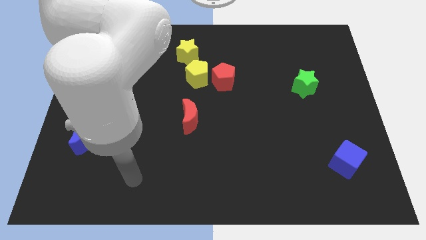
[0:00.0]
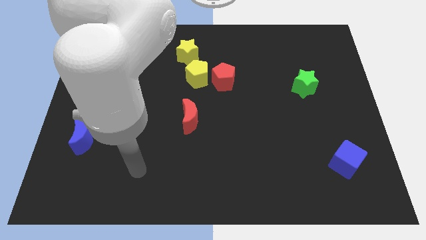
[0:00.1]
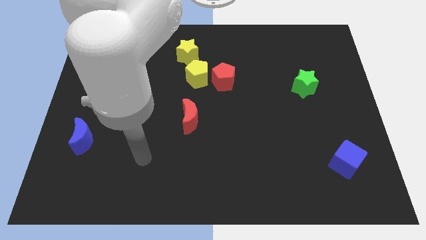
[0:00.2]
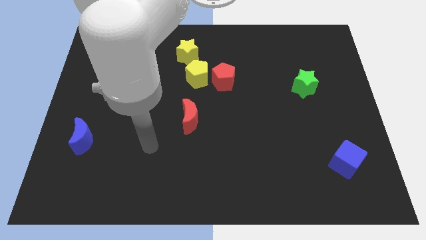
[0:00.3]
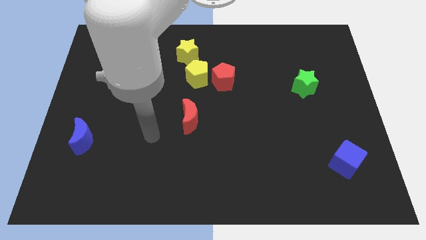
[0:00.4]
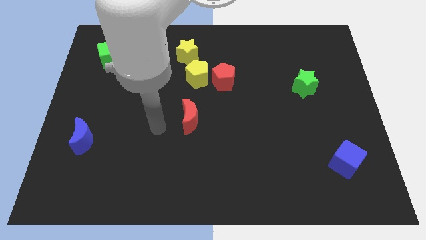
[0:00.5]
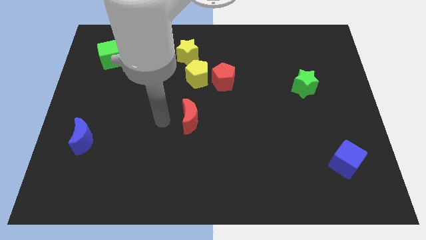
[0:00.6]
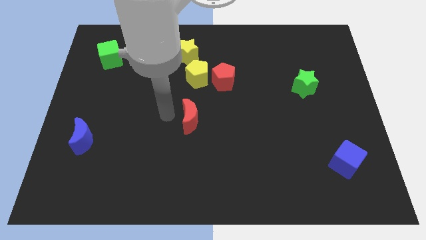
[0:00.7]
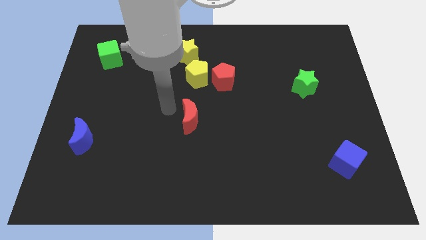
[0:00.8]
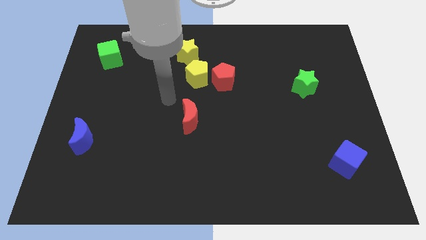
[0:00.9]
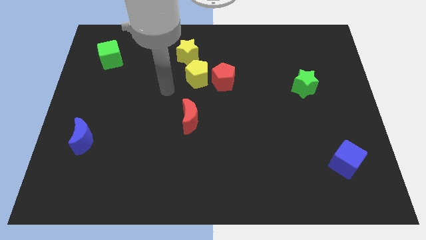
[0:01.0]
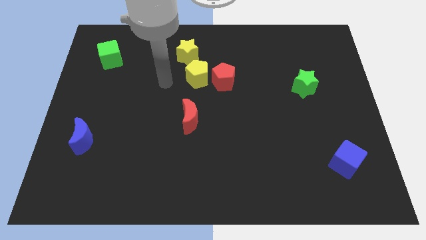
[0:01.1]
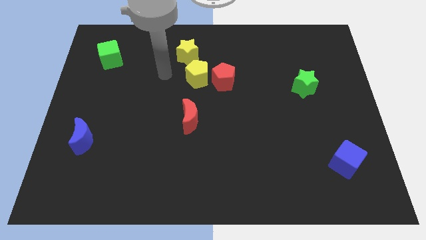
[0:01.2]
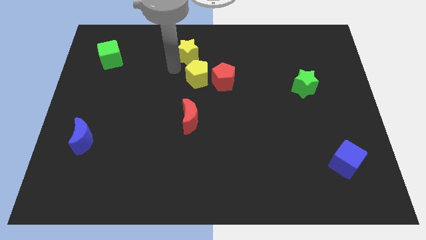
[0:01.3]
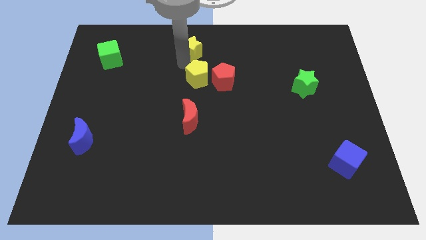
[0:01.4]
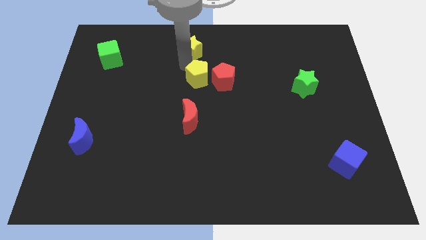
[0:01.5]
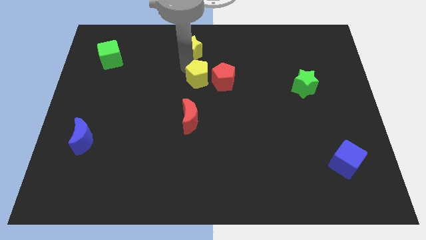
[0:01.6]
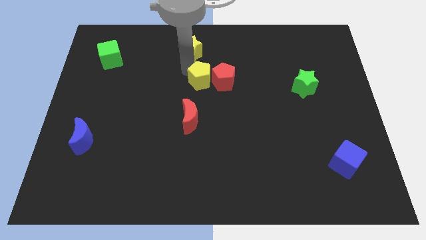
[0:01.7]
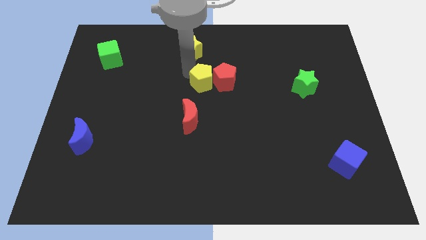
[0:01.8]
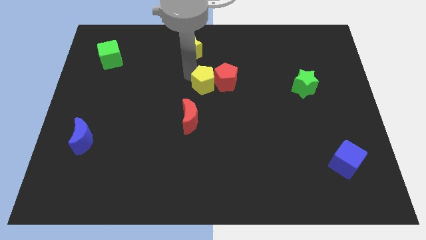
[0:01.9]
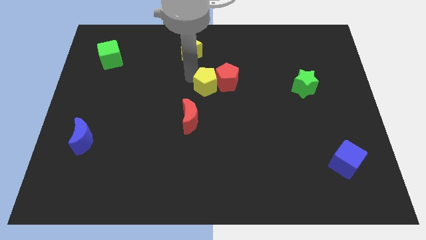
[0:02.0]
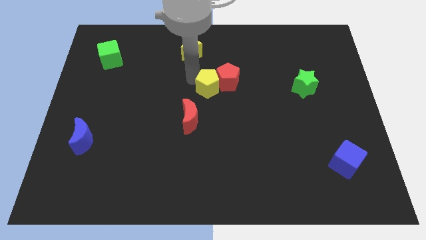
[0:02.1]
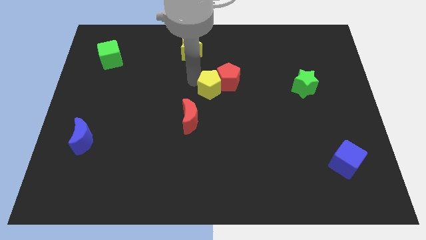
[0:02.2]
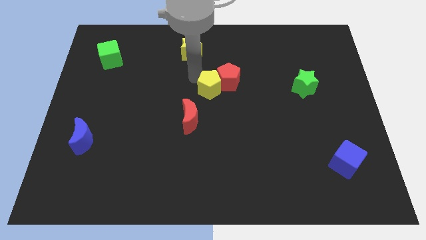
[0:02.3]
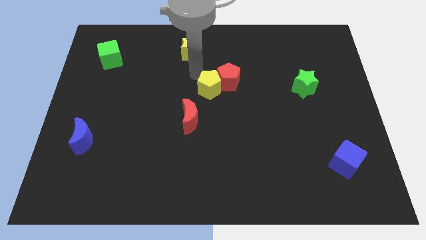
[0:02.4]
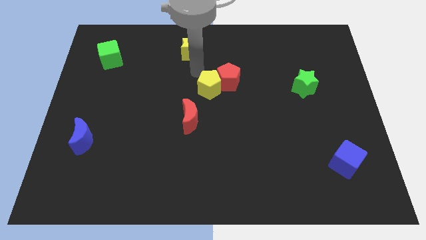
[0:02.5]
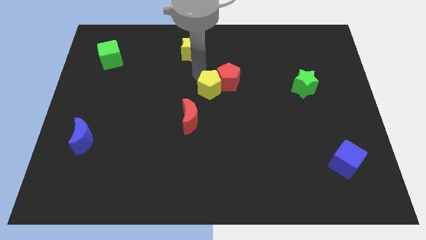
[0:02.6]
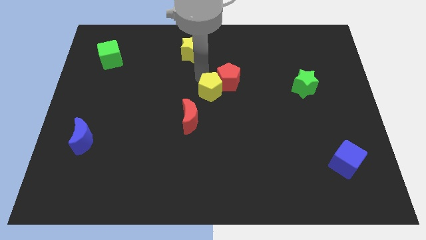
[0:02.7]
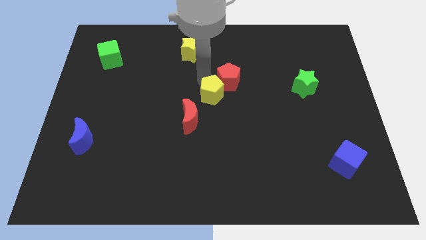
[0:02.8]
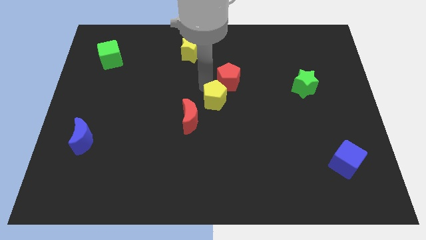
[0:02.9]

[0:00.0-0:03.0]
push the yellow pentagon somewhat downwards and to the right diagonally

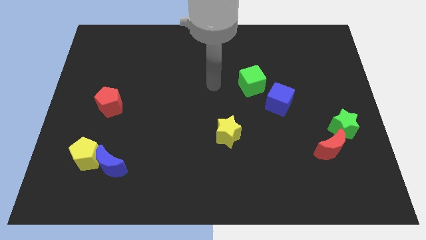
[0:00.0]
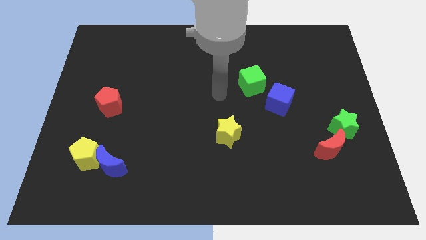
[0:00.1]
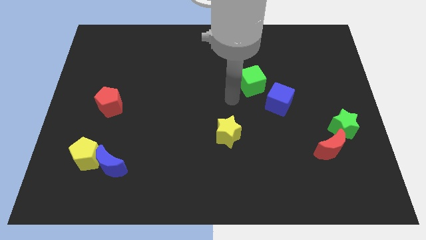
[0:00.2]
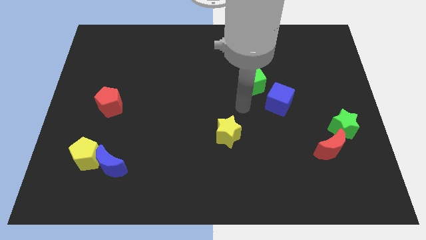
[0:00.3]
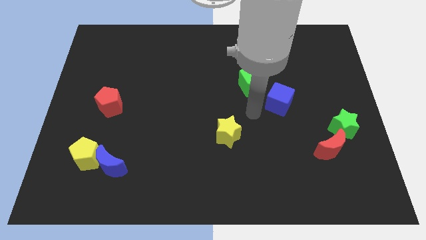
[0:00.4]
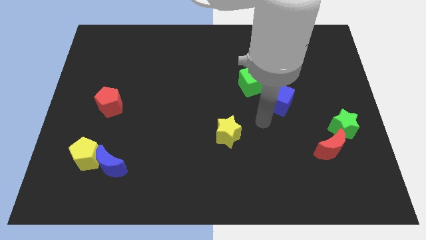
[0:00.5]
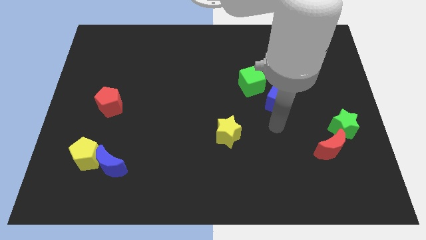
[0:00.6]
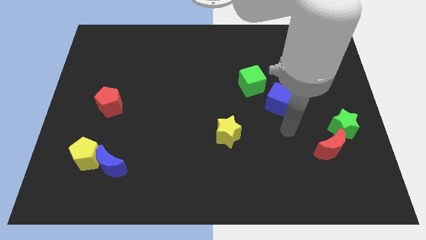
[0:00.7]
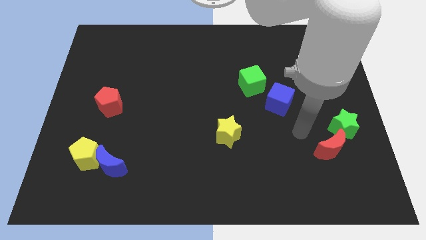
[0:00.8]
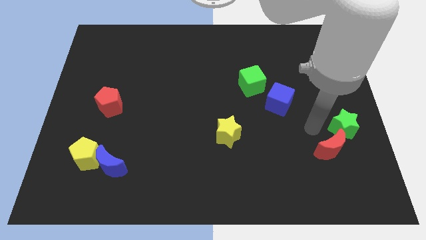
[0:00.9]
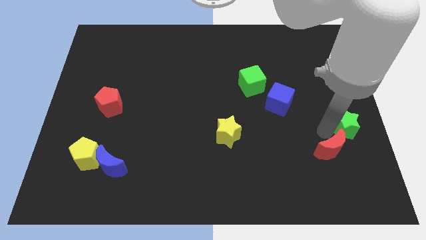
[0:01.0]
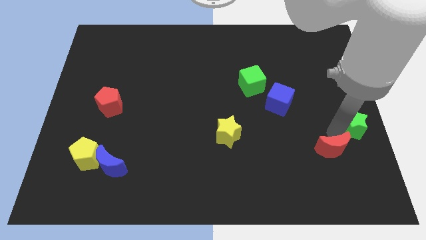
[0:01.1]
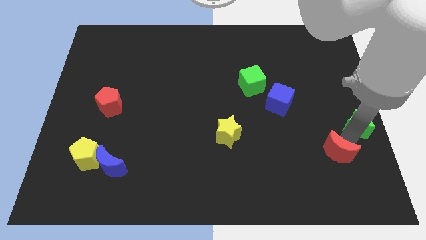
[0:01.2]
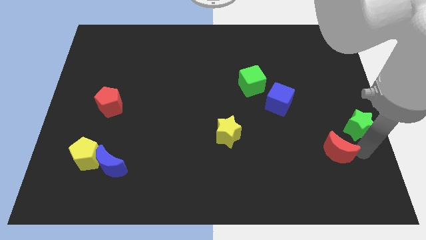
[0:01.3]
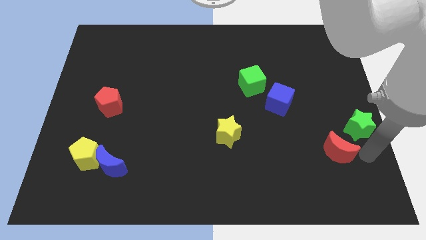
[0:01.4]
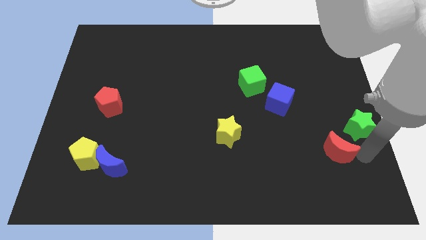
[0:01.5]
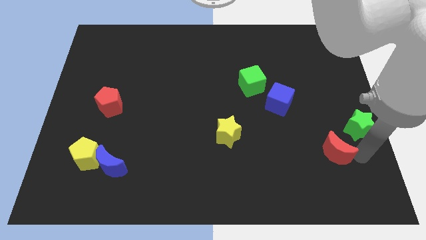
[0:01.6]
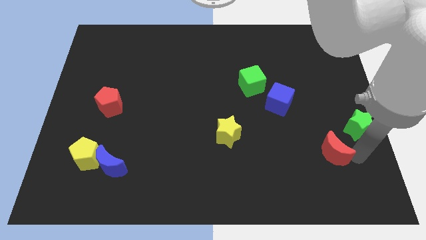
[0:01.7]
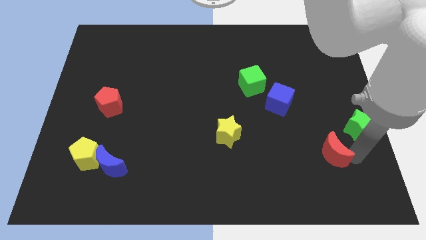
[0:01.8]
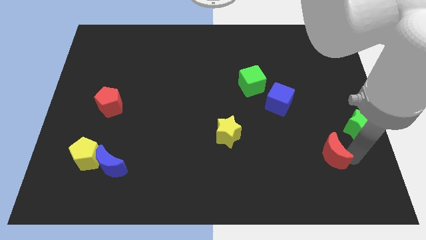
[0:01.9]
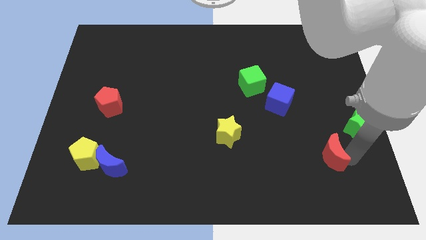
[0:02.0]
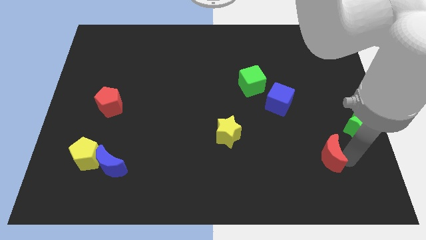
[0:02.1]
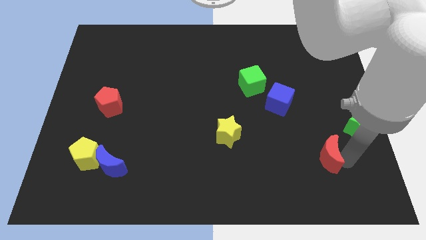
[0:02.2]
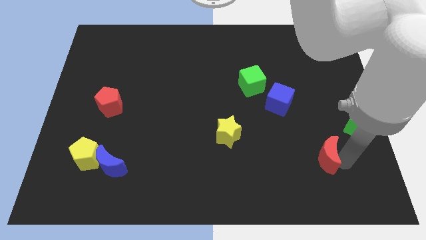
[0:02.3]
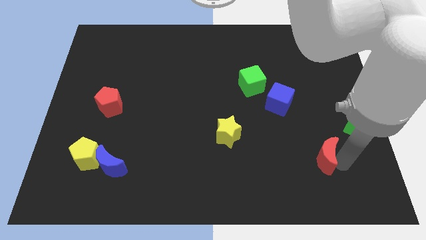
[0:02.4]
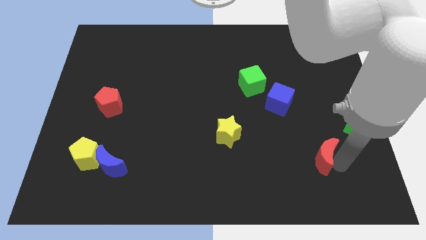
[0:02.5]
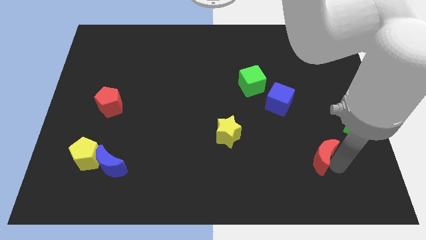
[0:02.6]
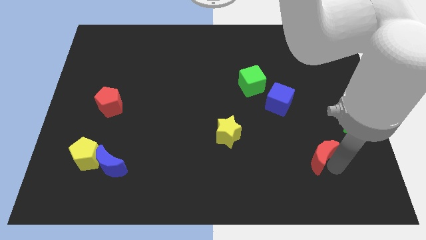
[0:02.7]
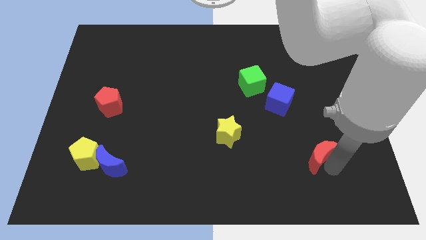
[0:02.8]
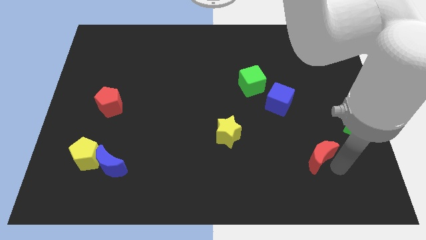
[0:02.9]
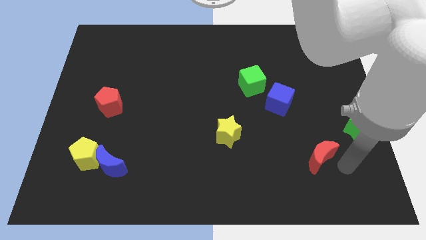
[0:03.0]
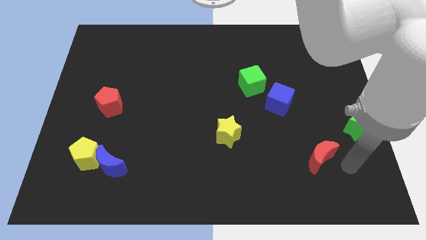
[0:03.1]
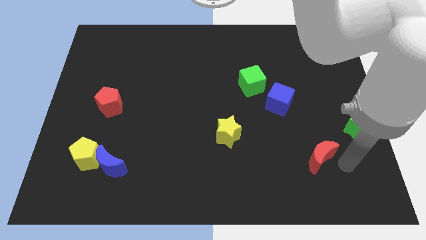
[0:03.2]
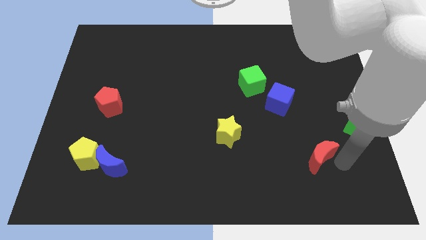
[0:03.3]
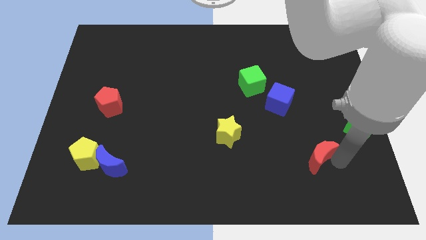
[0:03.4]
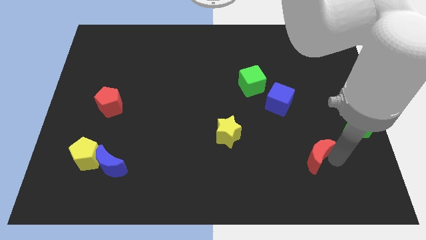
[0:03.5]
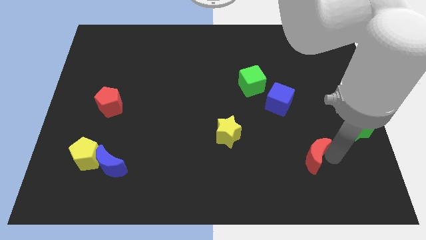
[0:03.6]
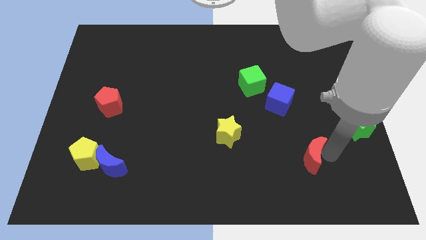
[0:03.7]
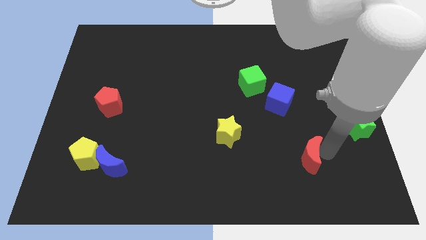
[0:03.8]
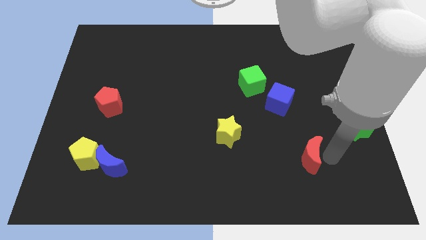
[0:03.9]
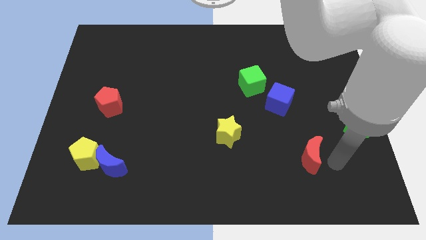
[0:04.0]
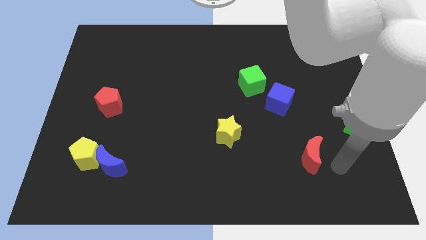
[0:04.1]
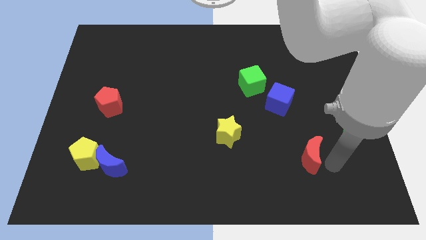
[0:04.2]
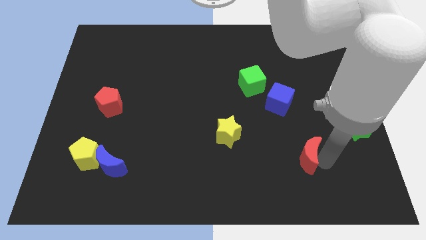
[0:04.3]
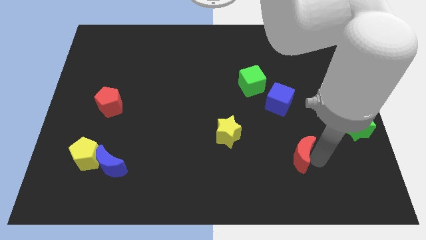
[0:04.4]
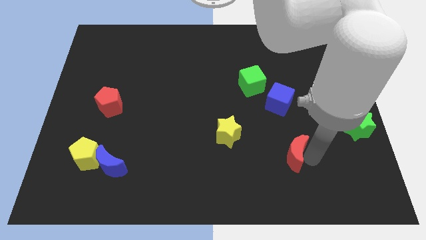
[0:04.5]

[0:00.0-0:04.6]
slide the red moon left a little

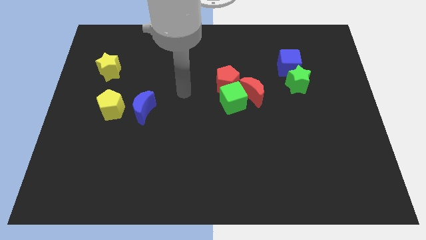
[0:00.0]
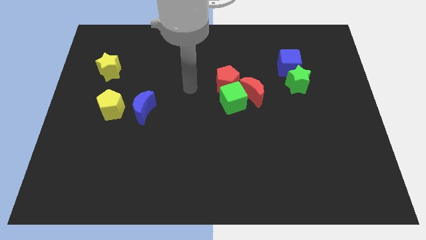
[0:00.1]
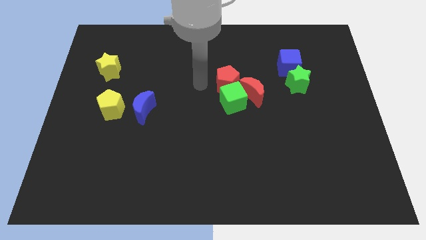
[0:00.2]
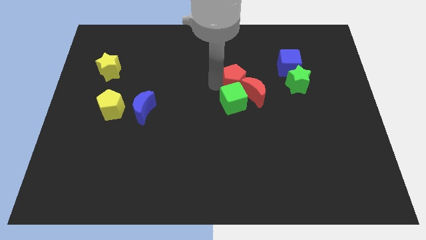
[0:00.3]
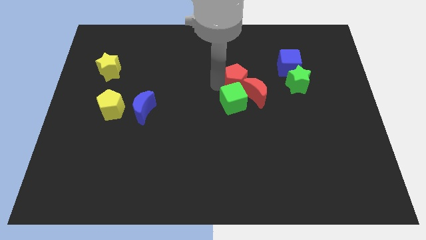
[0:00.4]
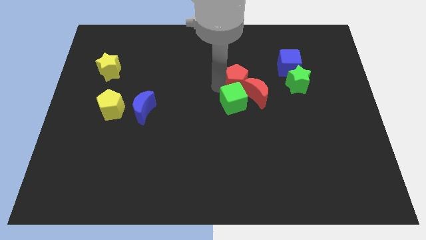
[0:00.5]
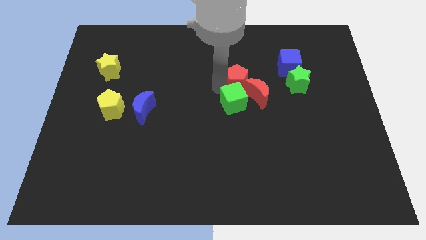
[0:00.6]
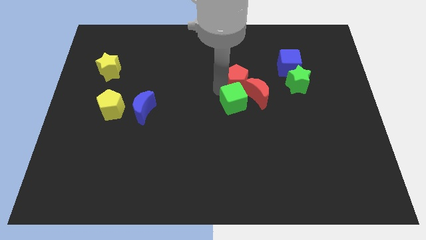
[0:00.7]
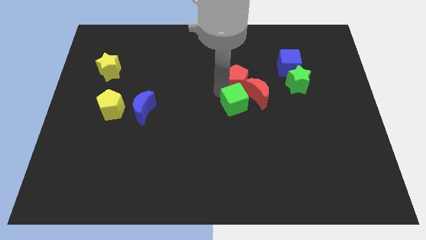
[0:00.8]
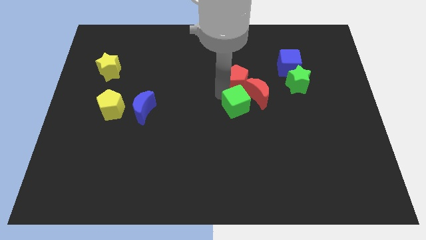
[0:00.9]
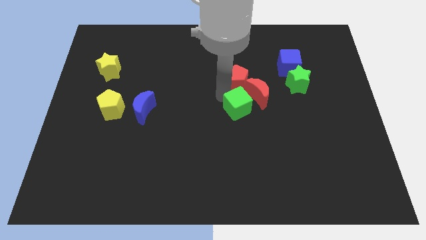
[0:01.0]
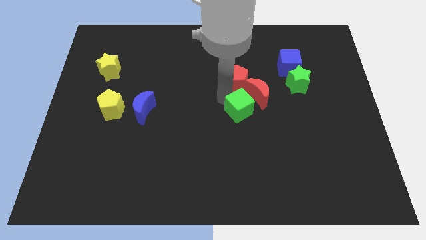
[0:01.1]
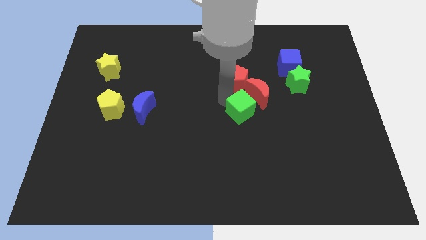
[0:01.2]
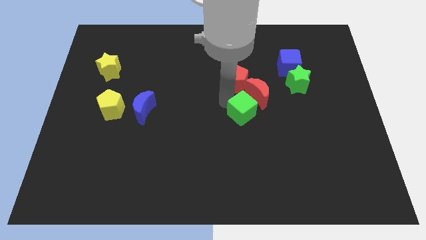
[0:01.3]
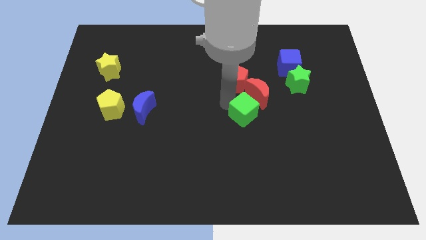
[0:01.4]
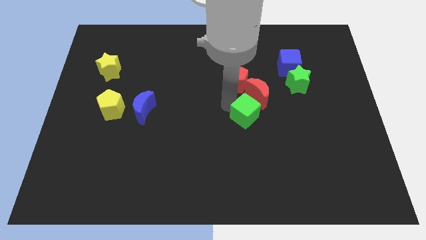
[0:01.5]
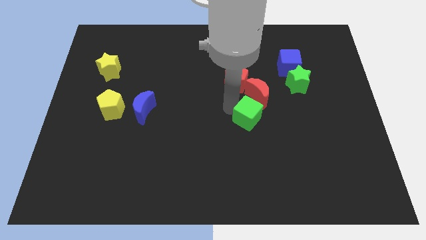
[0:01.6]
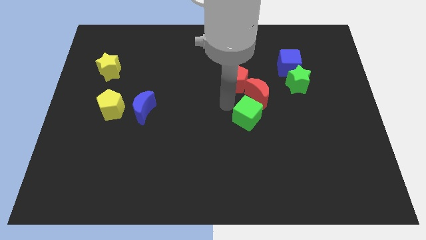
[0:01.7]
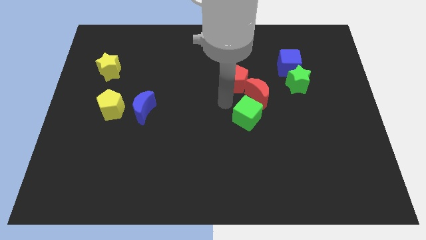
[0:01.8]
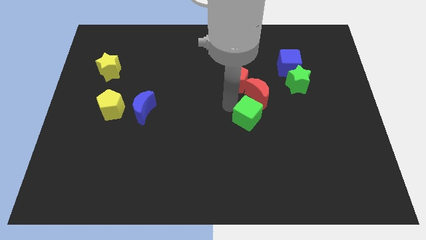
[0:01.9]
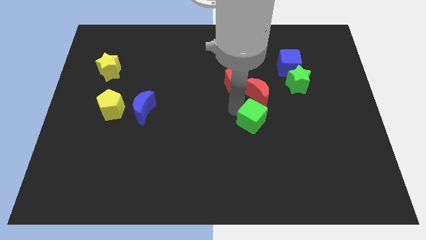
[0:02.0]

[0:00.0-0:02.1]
push the green cube downwards and to the right diagonally a little bit
